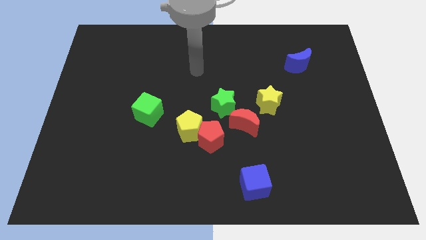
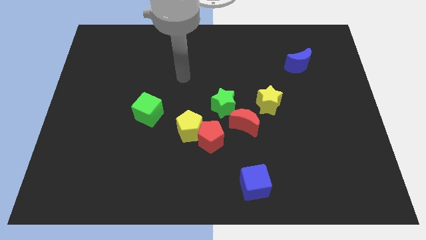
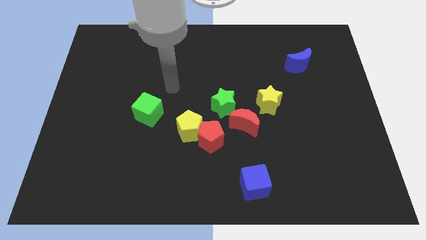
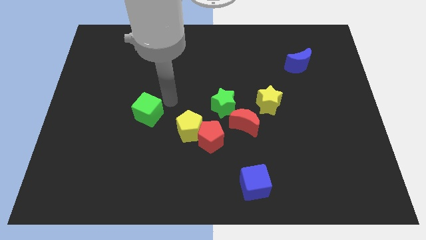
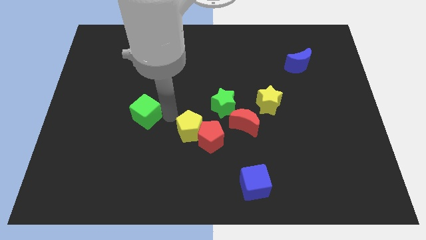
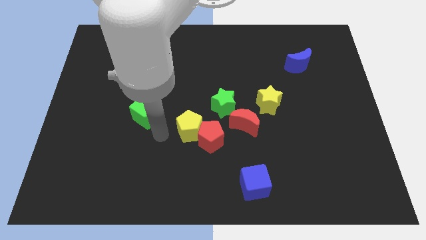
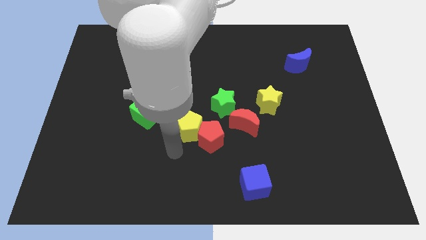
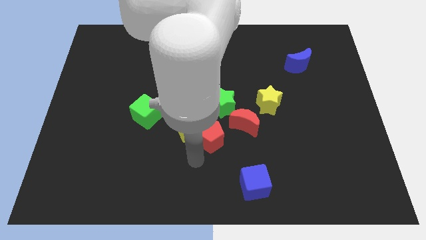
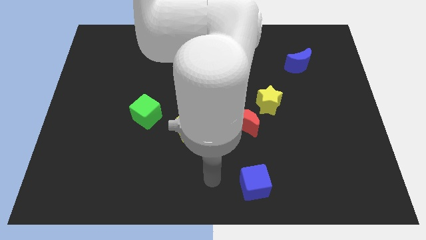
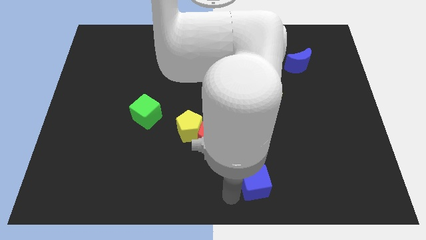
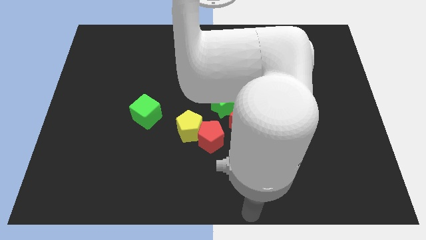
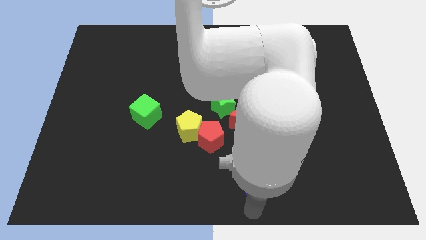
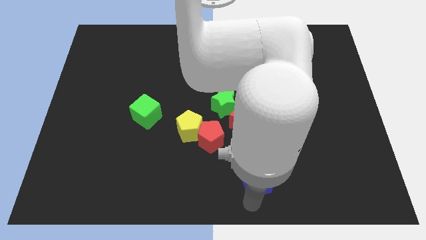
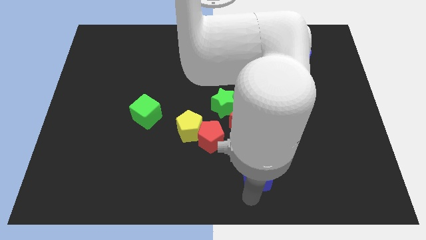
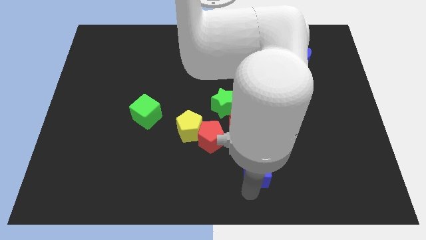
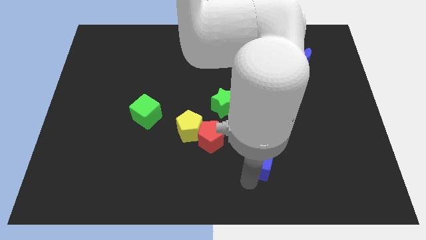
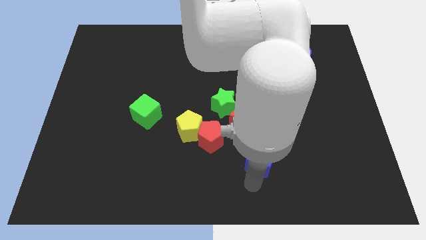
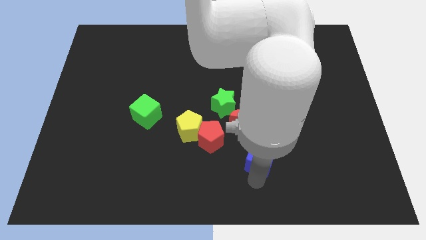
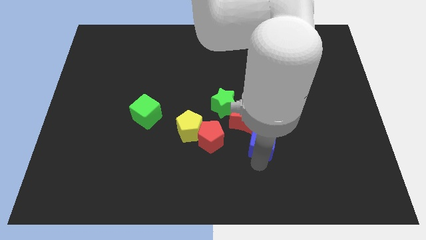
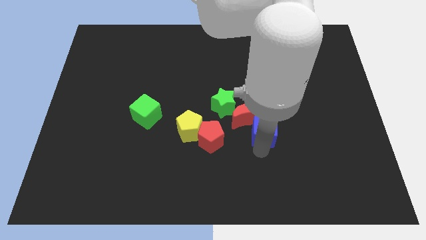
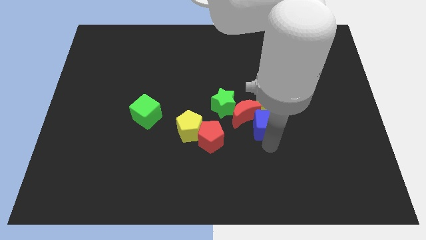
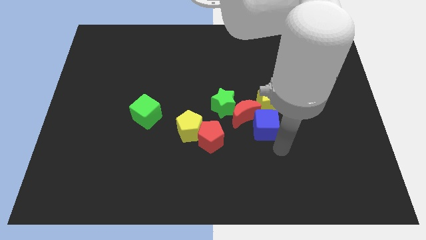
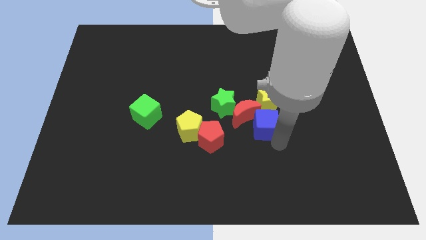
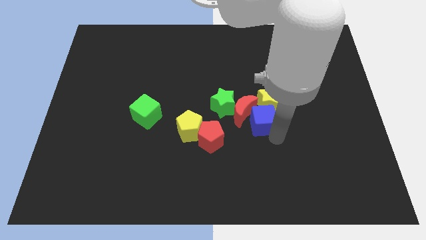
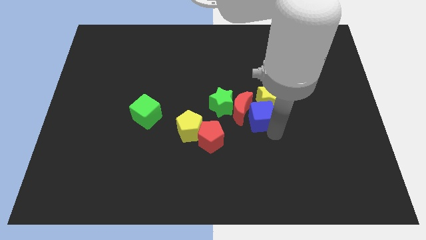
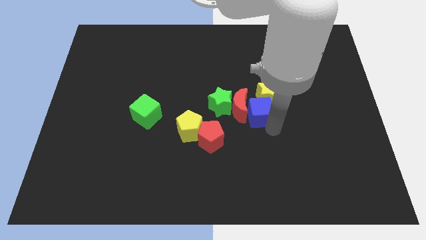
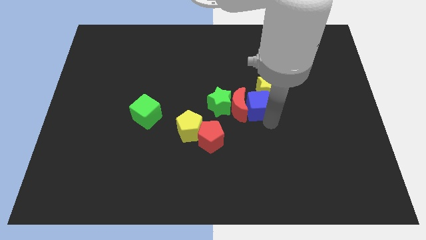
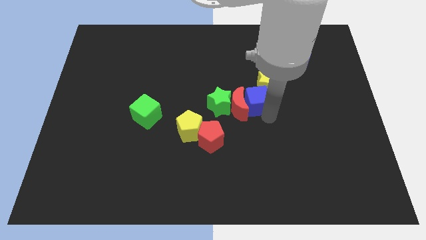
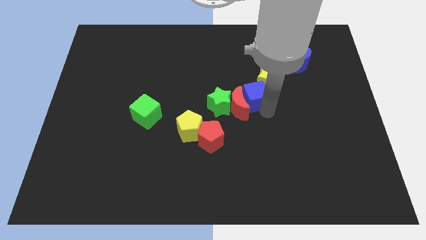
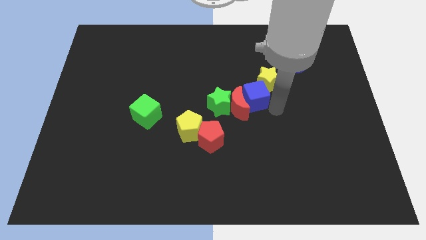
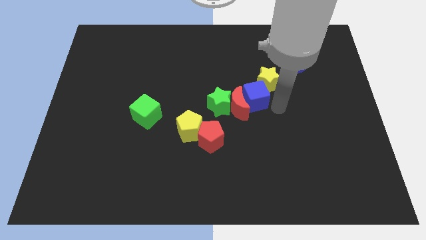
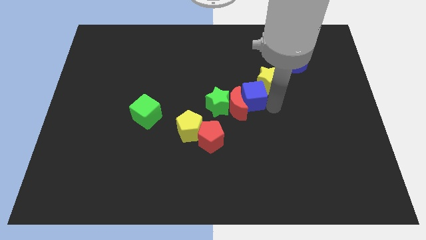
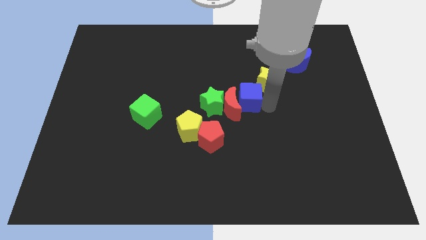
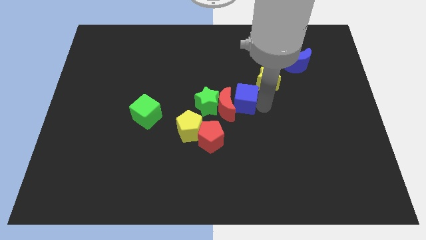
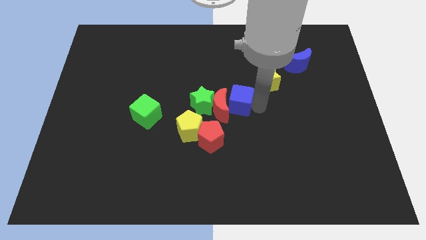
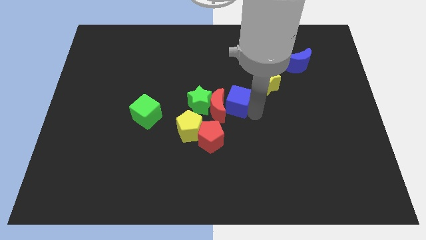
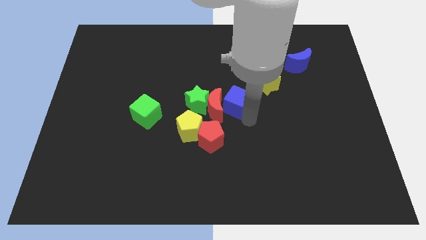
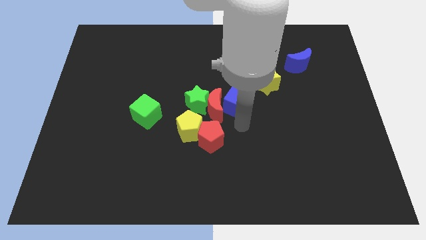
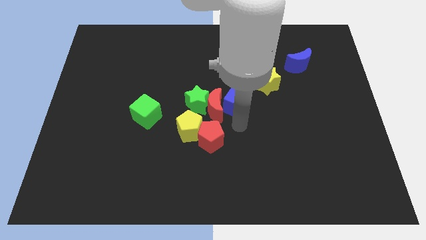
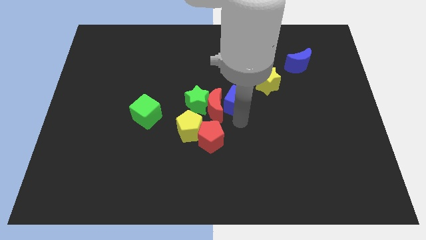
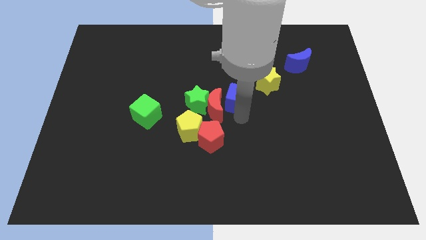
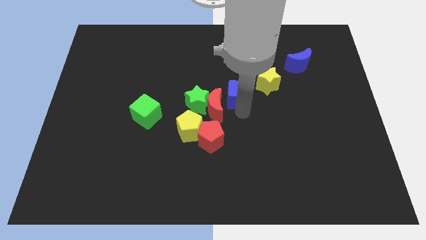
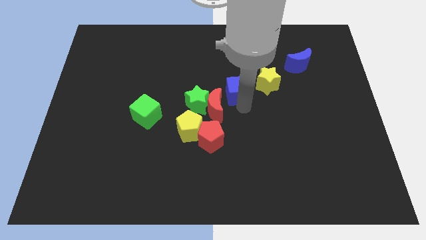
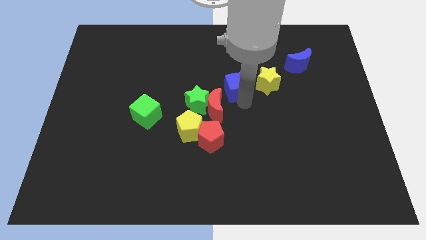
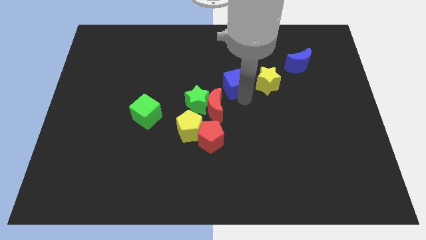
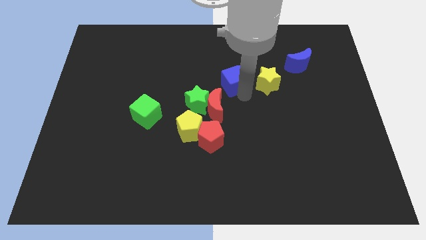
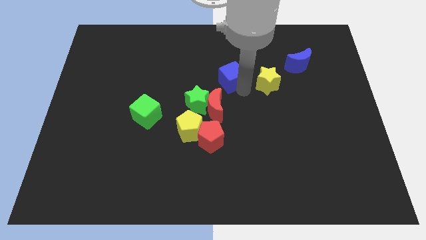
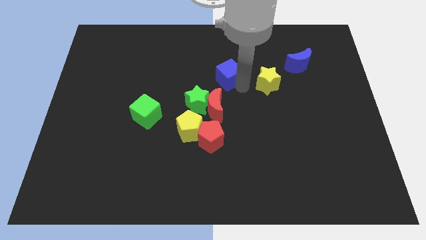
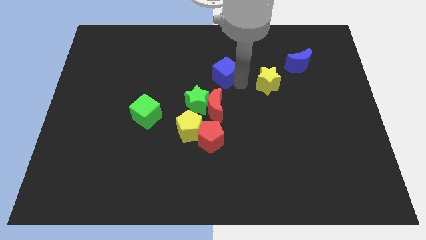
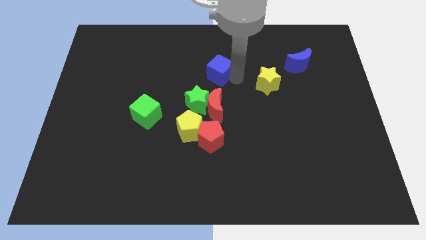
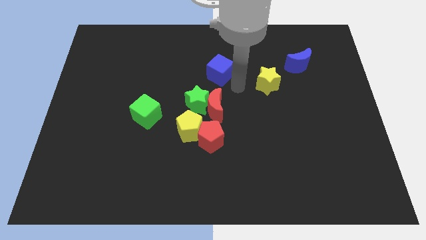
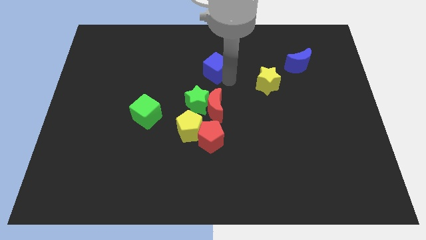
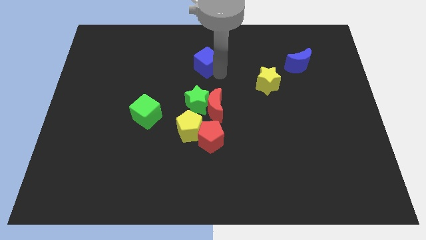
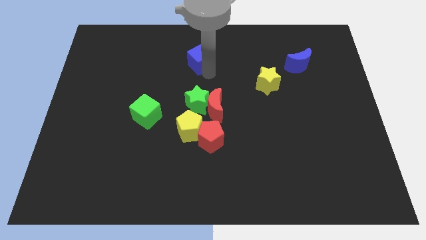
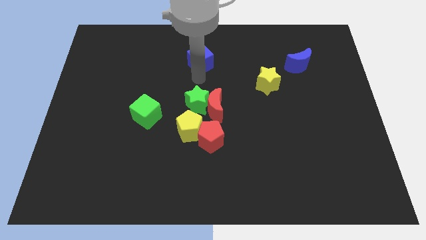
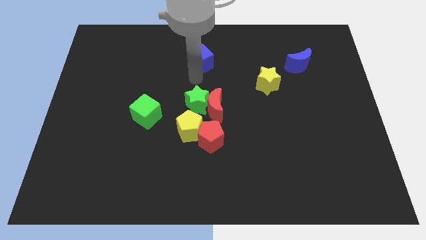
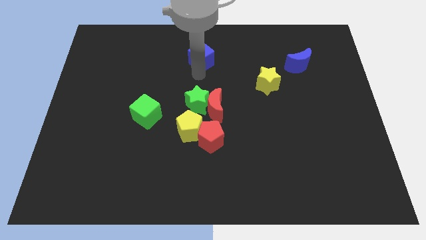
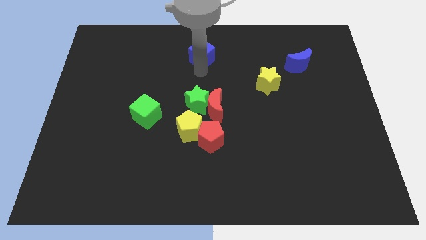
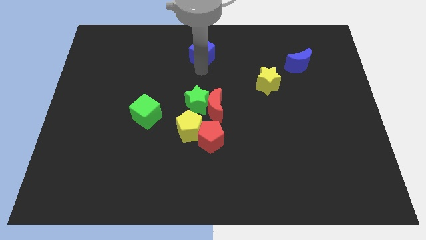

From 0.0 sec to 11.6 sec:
put the blue cube to the towards your base

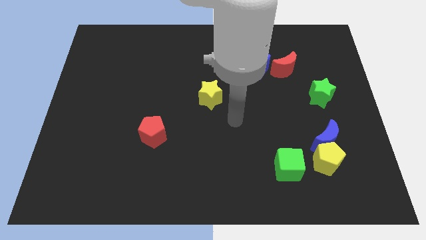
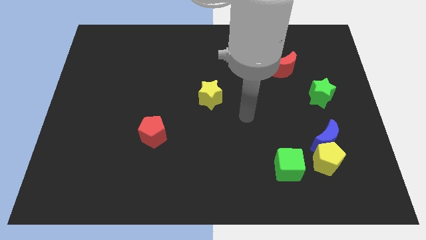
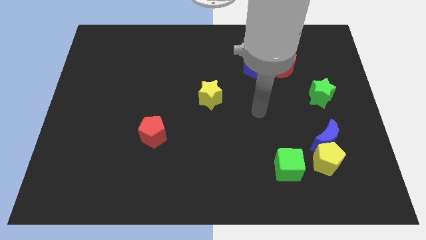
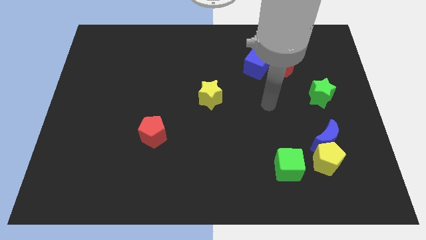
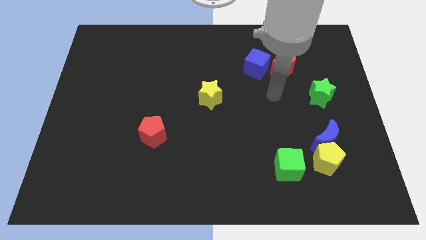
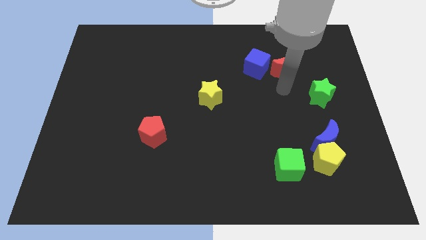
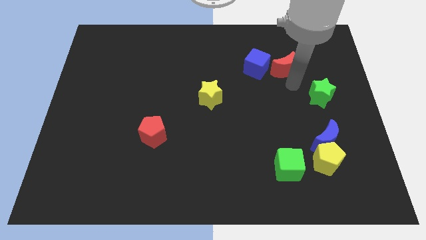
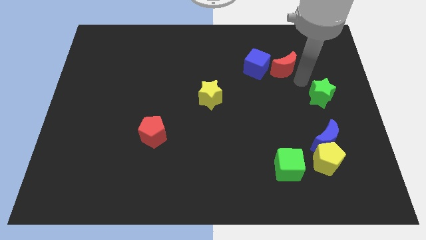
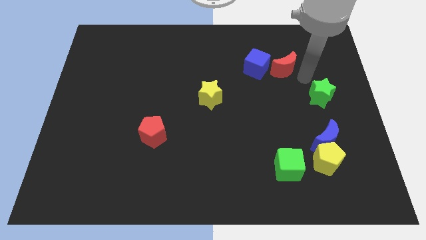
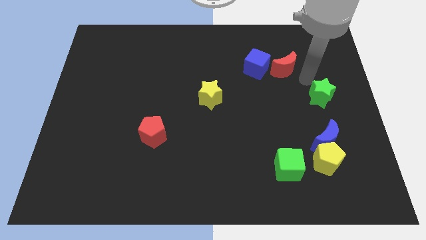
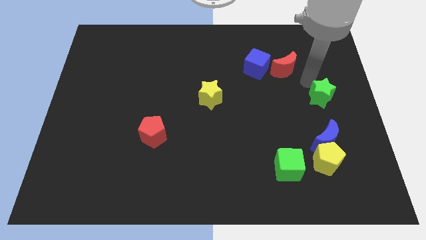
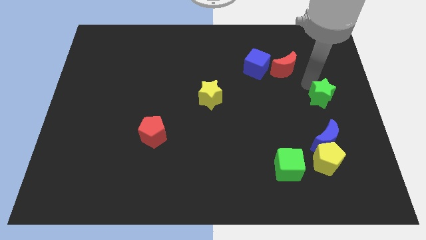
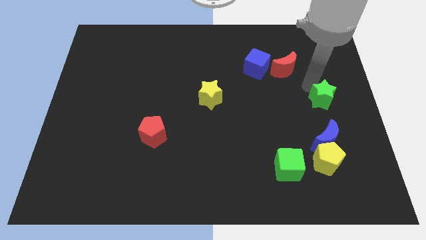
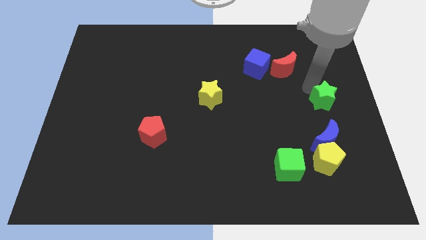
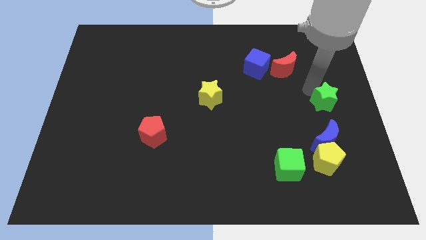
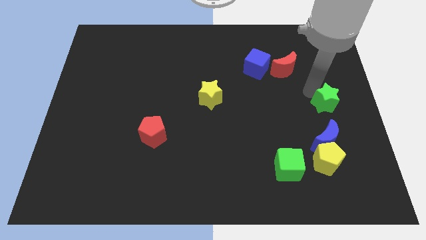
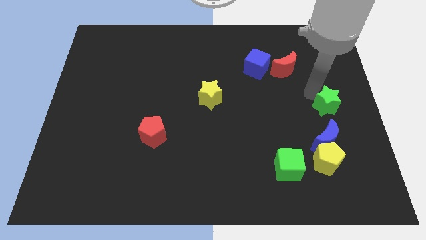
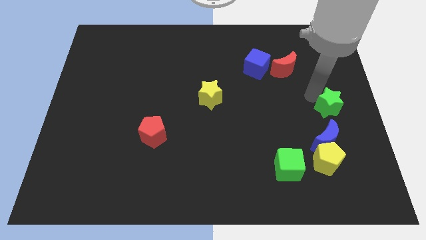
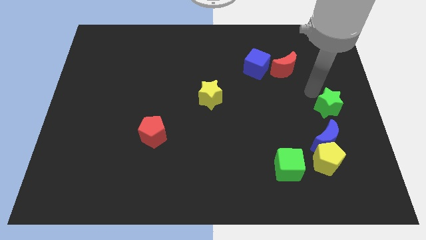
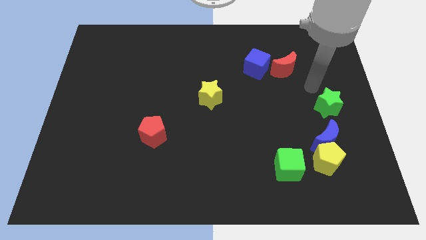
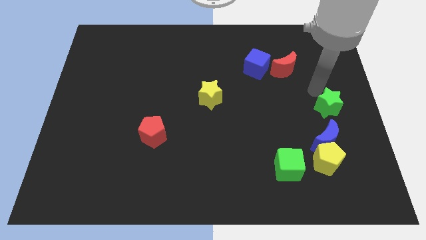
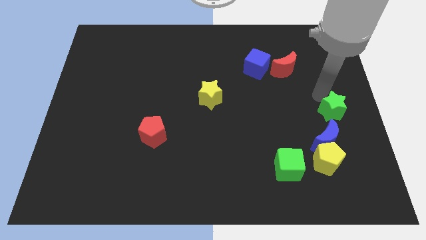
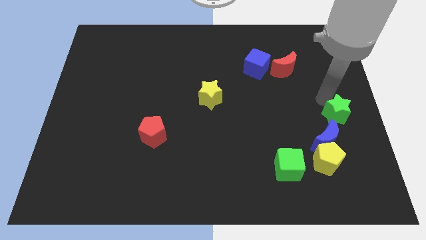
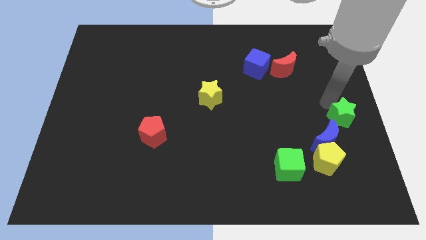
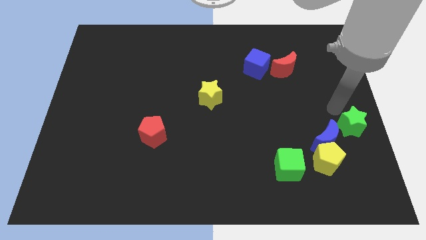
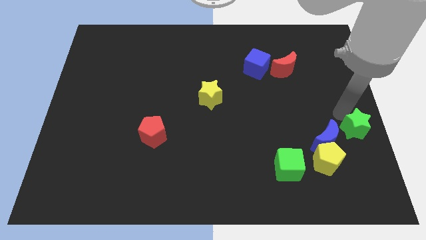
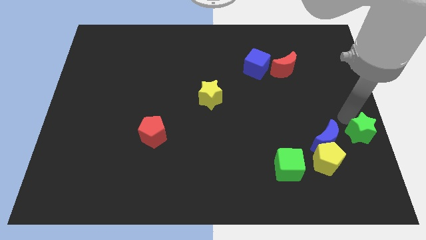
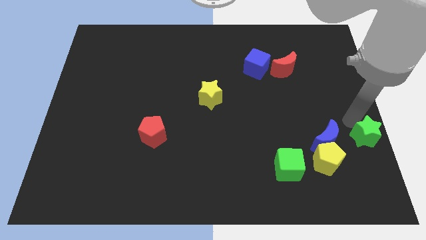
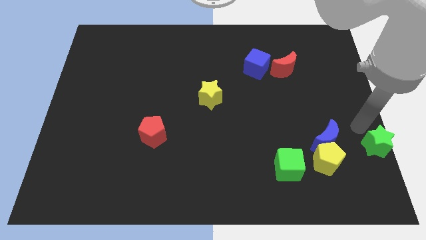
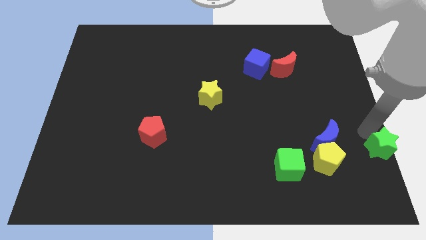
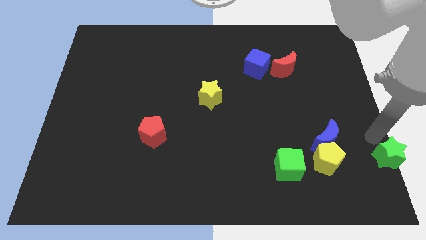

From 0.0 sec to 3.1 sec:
slide the green star to the bottom right
